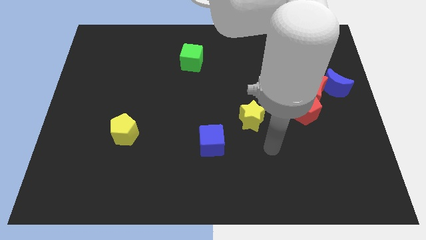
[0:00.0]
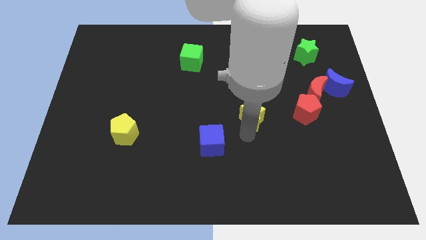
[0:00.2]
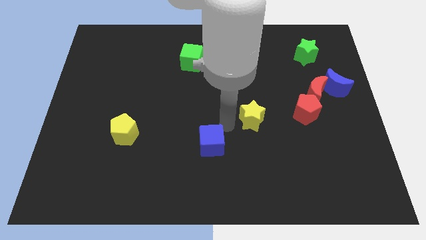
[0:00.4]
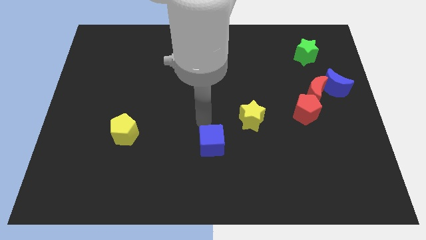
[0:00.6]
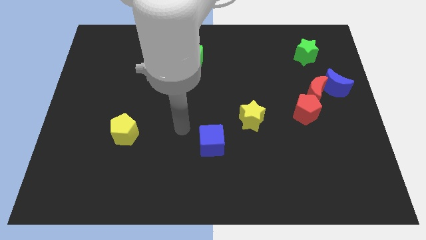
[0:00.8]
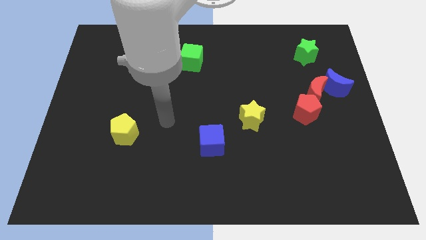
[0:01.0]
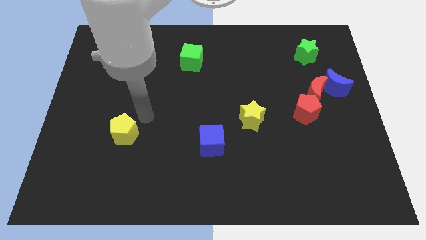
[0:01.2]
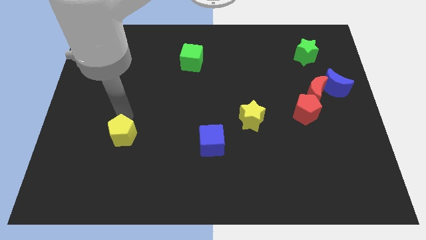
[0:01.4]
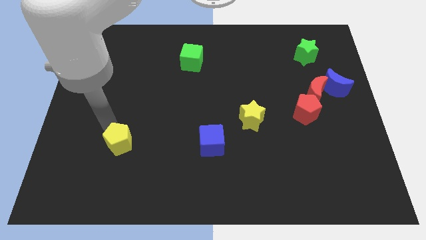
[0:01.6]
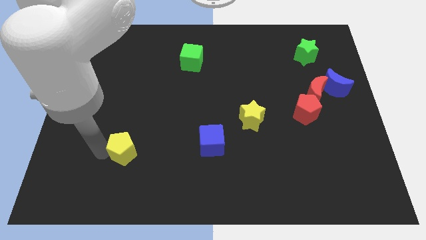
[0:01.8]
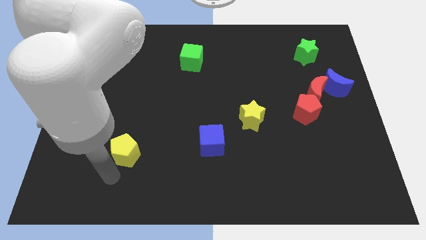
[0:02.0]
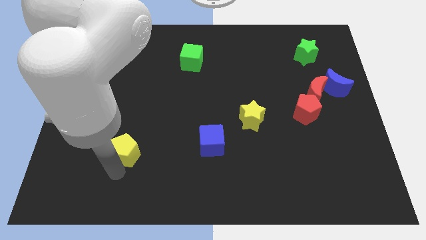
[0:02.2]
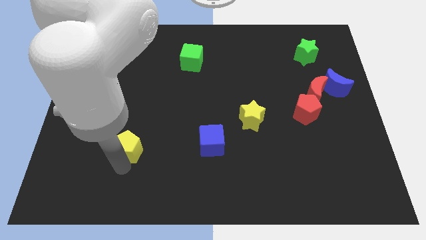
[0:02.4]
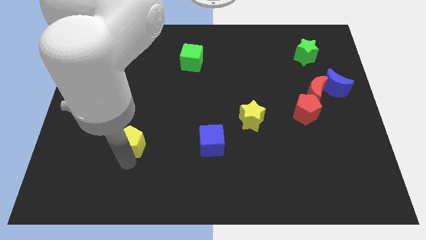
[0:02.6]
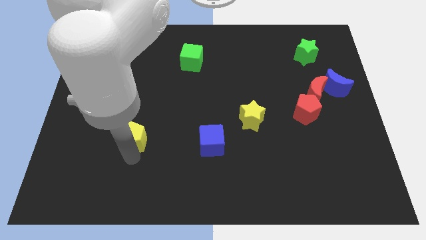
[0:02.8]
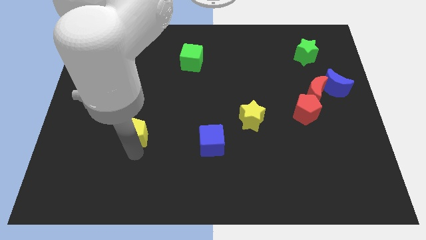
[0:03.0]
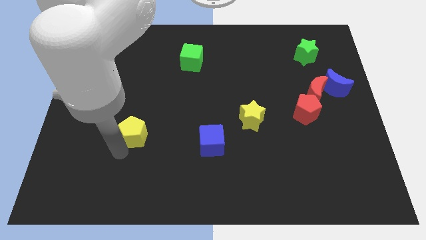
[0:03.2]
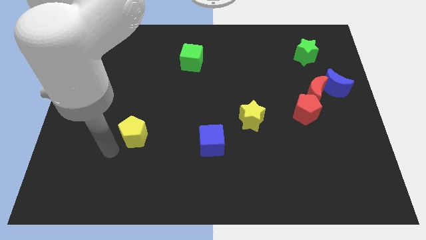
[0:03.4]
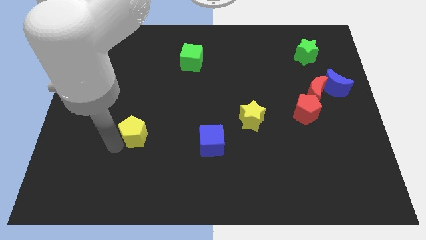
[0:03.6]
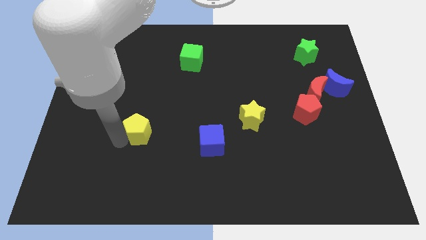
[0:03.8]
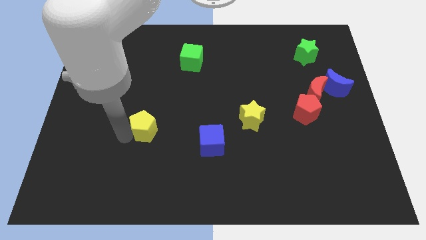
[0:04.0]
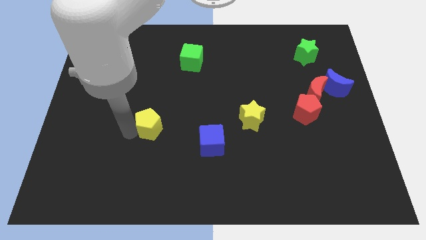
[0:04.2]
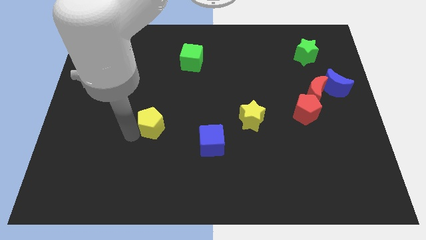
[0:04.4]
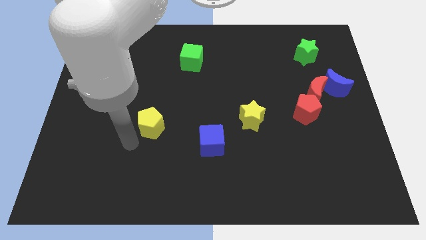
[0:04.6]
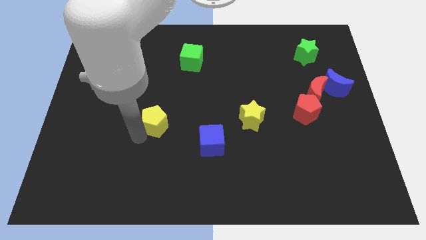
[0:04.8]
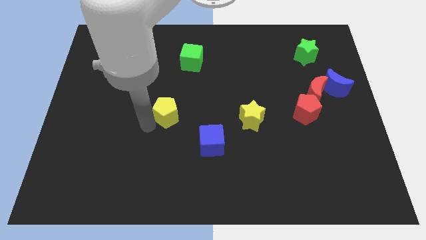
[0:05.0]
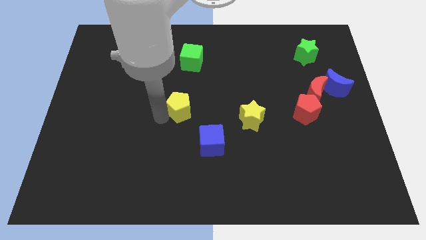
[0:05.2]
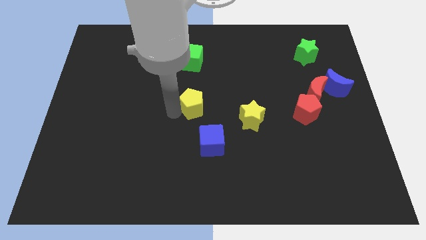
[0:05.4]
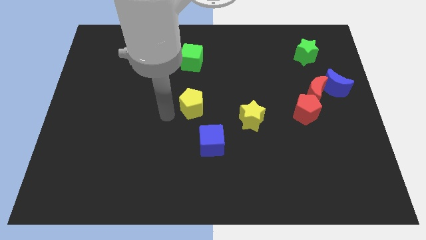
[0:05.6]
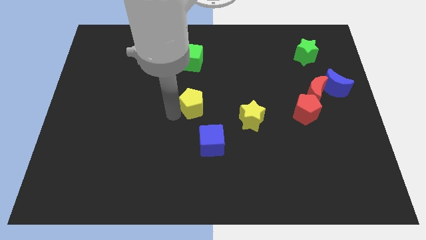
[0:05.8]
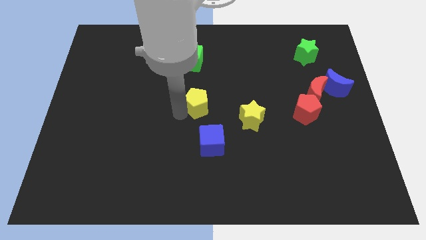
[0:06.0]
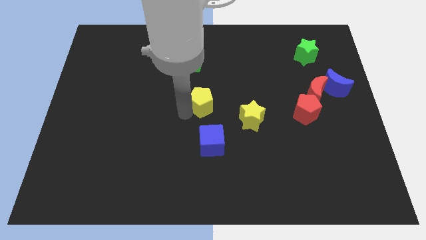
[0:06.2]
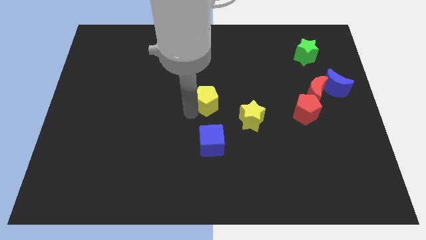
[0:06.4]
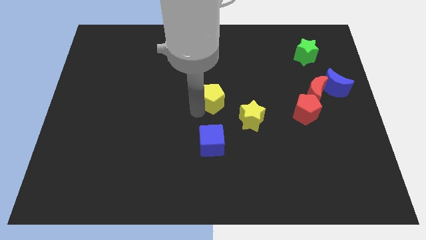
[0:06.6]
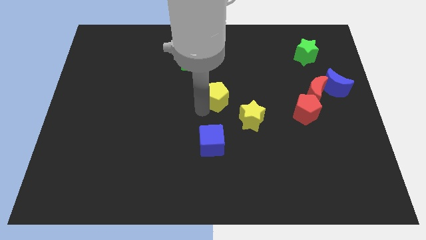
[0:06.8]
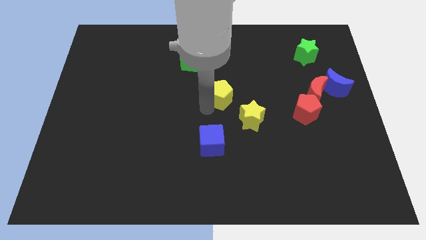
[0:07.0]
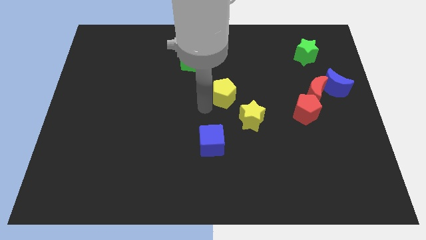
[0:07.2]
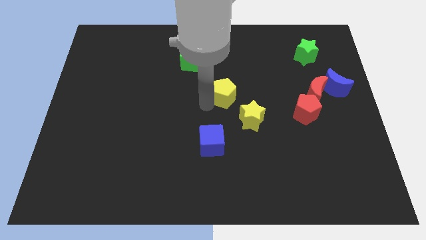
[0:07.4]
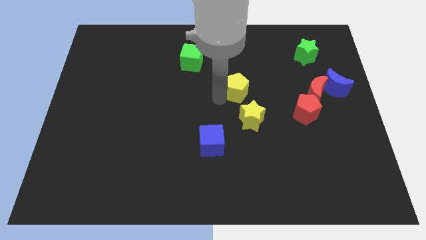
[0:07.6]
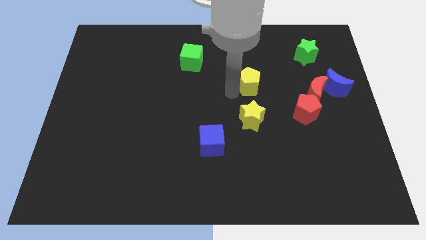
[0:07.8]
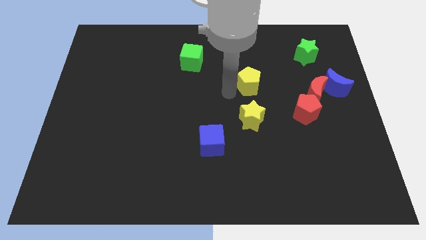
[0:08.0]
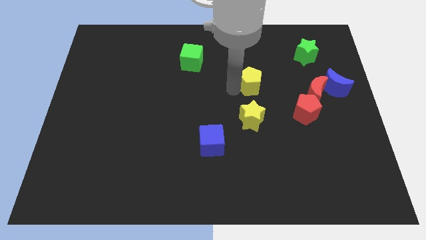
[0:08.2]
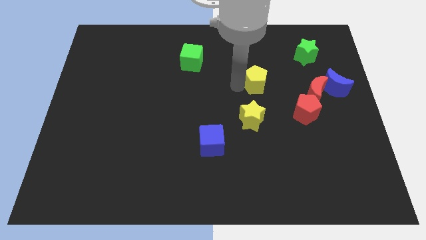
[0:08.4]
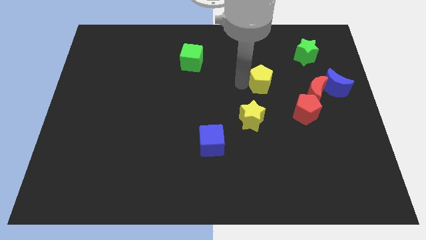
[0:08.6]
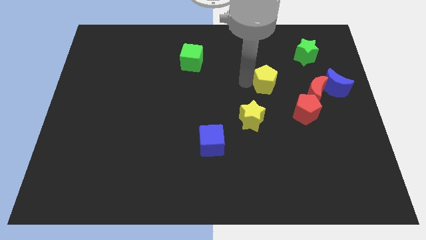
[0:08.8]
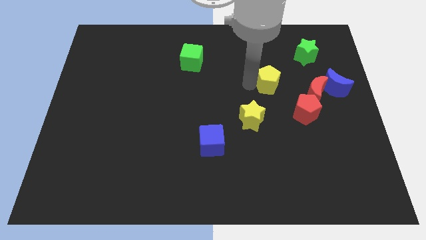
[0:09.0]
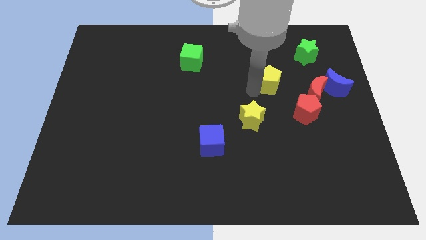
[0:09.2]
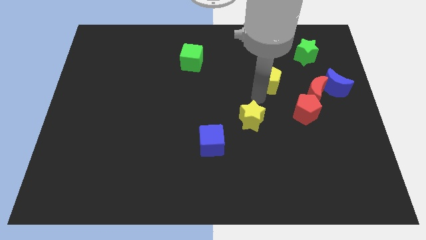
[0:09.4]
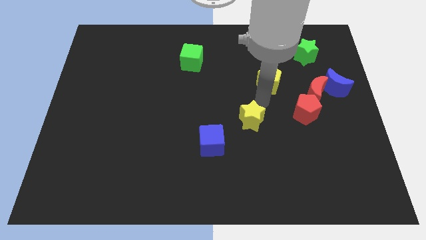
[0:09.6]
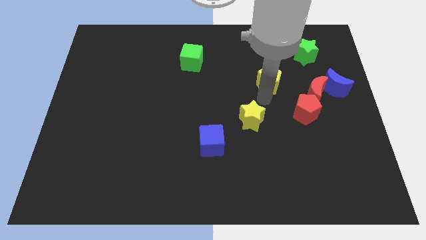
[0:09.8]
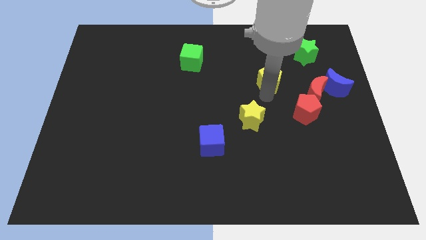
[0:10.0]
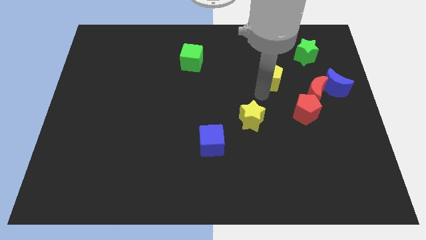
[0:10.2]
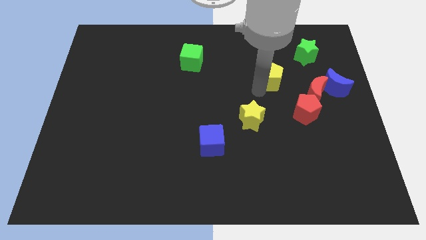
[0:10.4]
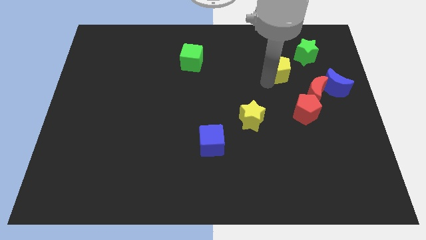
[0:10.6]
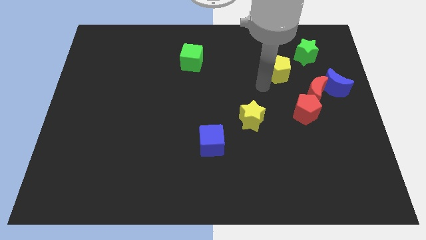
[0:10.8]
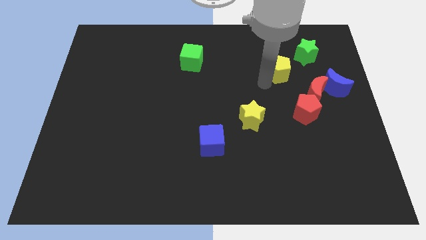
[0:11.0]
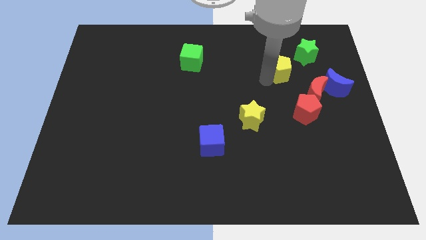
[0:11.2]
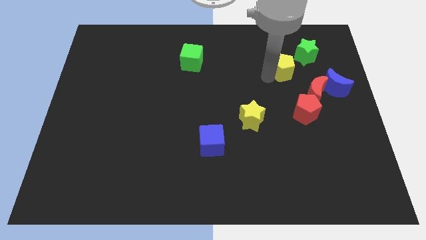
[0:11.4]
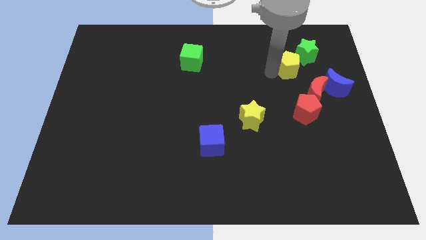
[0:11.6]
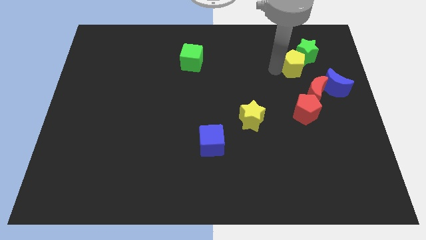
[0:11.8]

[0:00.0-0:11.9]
put the yellow pentagon to the green star

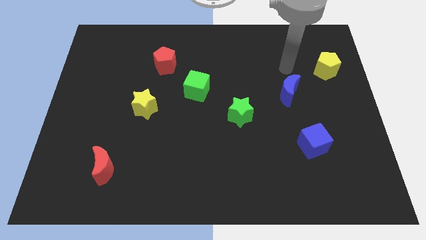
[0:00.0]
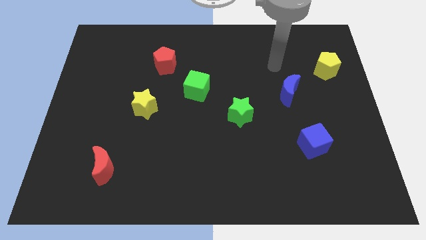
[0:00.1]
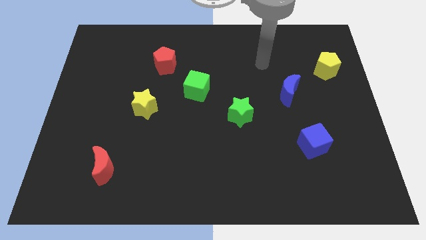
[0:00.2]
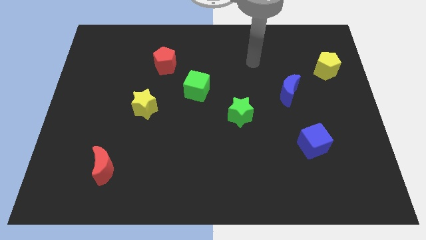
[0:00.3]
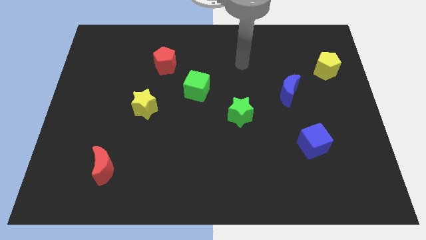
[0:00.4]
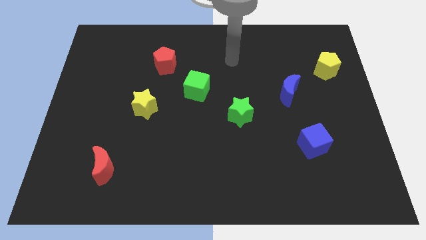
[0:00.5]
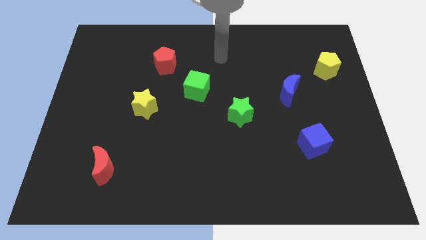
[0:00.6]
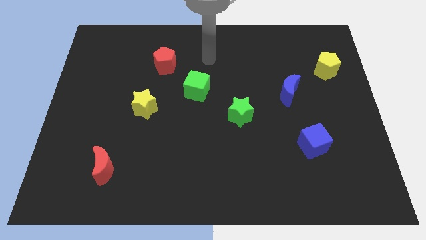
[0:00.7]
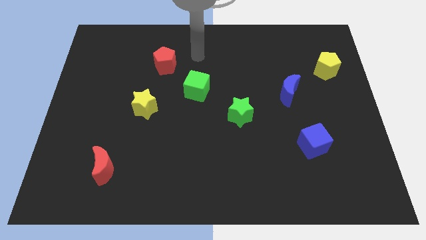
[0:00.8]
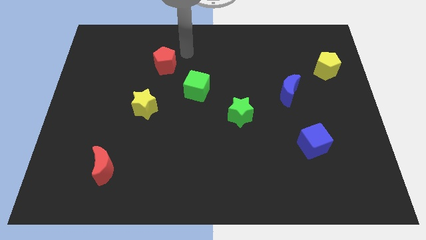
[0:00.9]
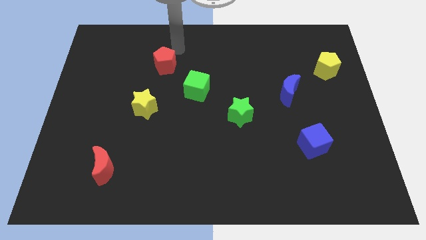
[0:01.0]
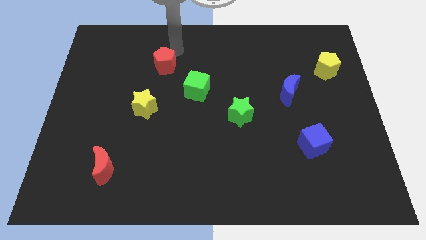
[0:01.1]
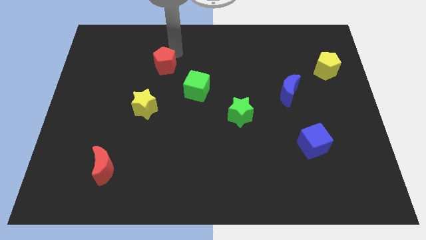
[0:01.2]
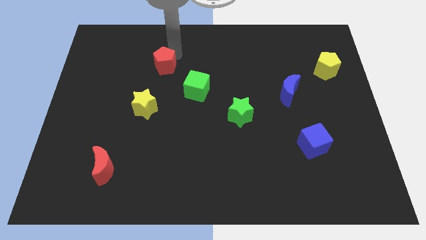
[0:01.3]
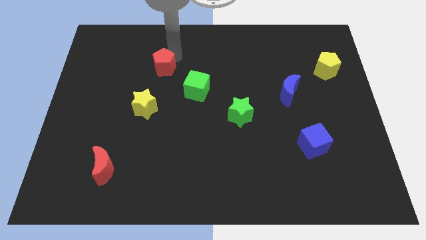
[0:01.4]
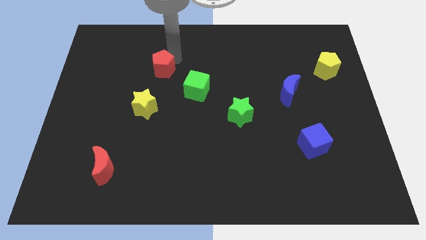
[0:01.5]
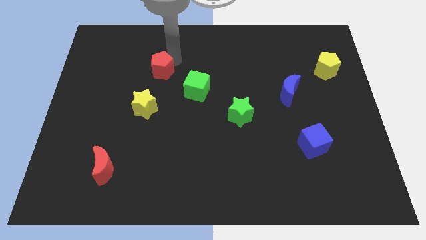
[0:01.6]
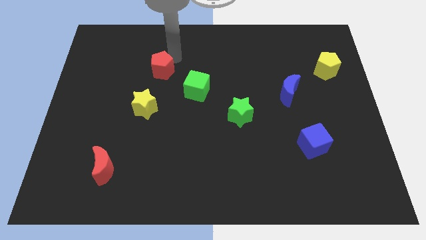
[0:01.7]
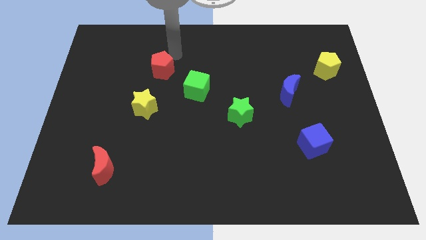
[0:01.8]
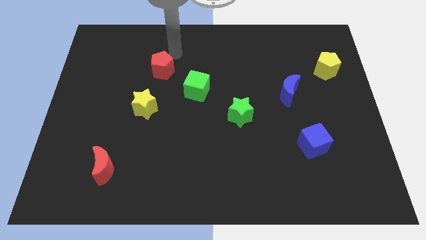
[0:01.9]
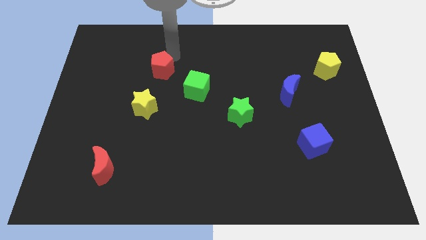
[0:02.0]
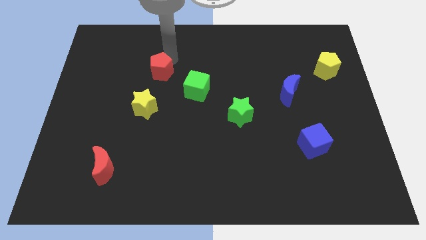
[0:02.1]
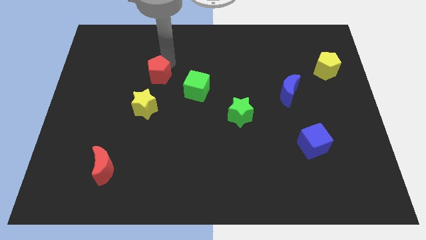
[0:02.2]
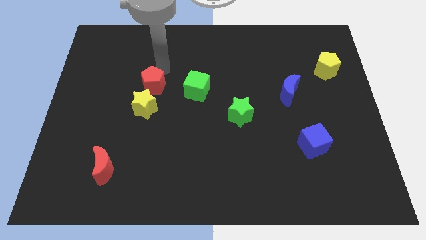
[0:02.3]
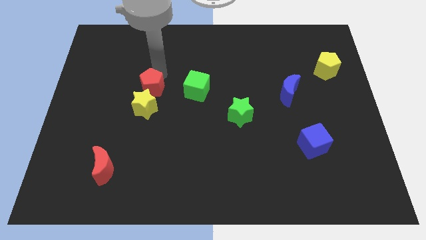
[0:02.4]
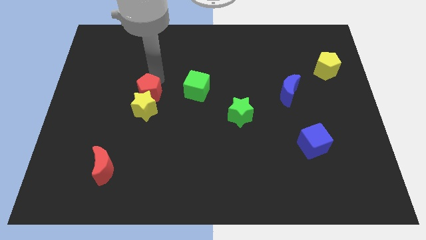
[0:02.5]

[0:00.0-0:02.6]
slide the red pentagon to the yellow star
